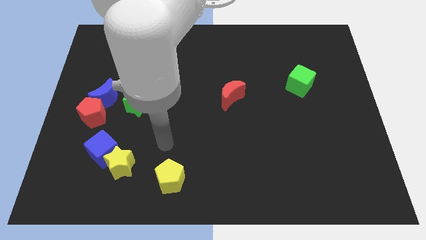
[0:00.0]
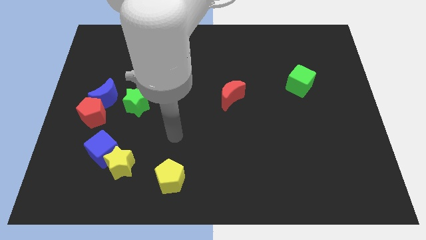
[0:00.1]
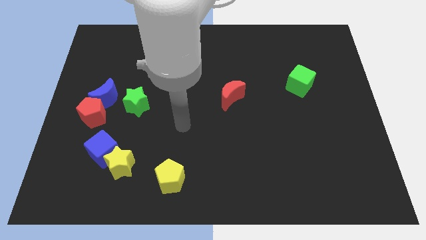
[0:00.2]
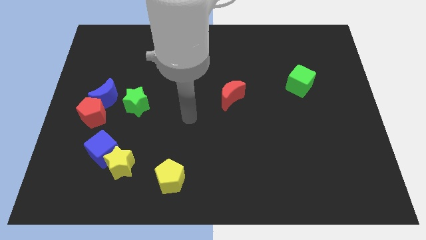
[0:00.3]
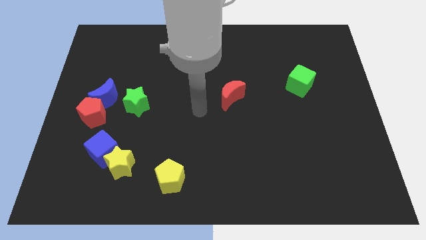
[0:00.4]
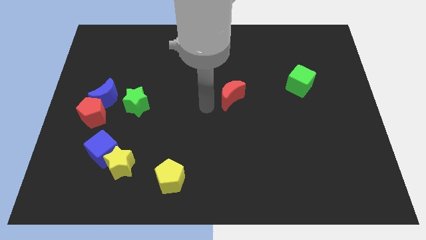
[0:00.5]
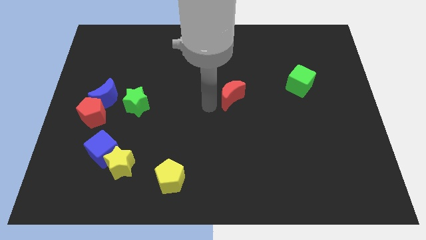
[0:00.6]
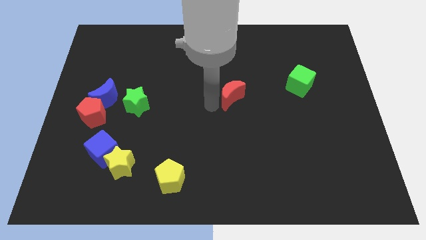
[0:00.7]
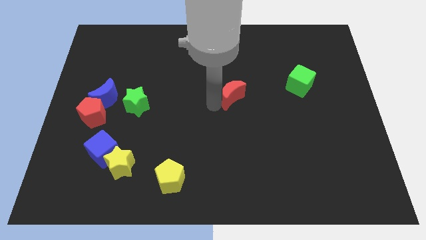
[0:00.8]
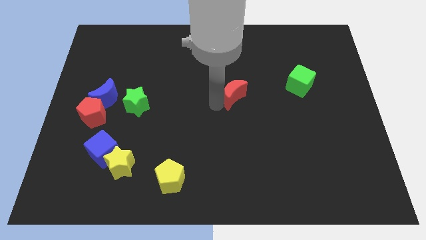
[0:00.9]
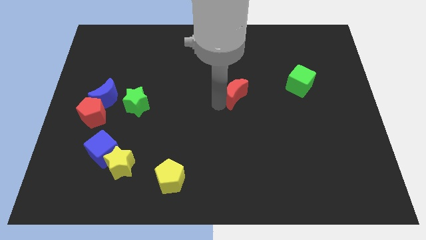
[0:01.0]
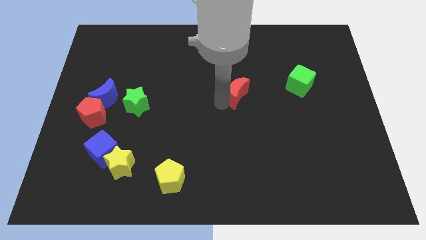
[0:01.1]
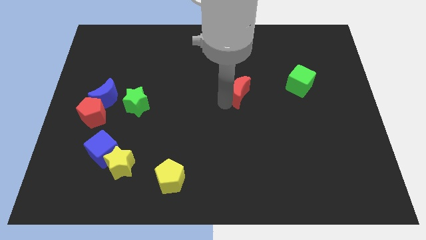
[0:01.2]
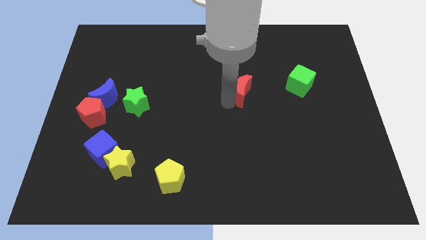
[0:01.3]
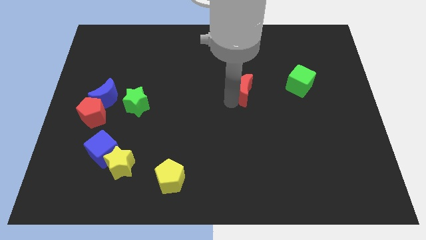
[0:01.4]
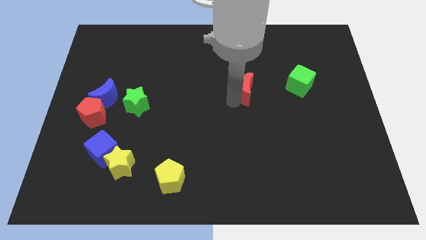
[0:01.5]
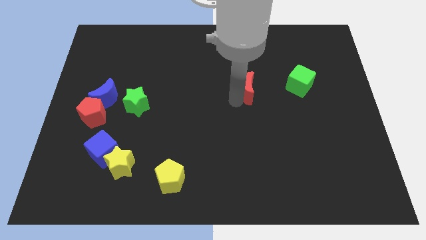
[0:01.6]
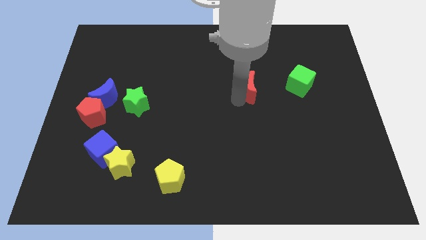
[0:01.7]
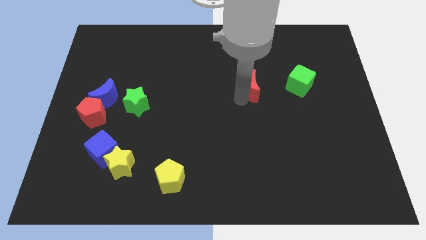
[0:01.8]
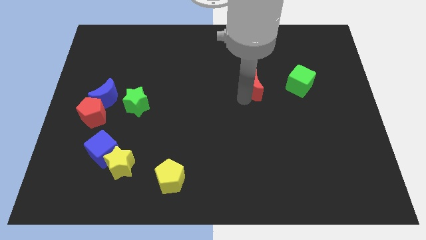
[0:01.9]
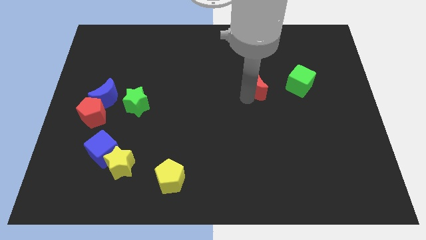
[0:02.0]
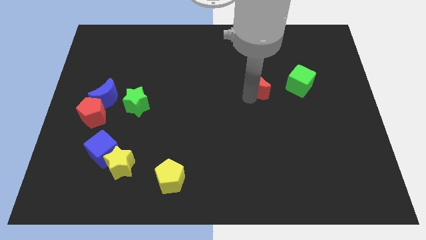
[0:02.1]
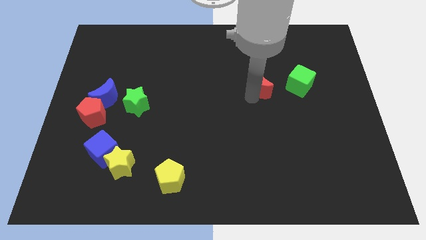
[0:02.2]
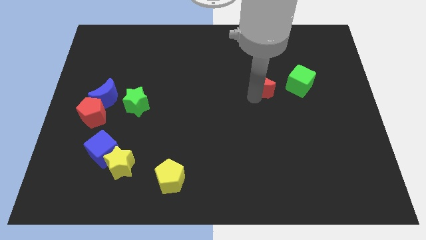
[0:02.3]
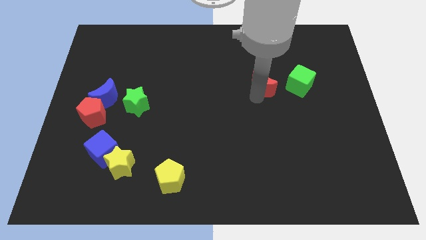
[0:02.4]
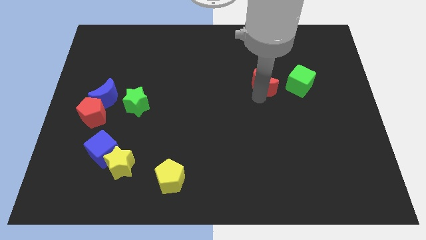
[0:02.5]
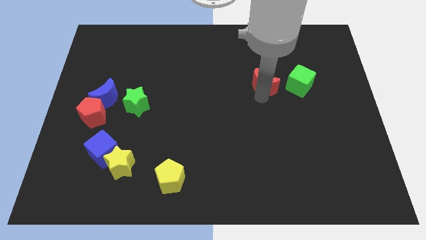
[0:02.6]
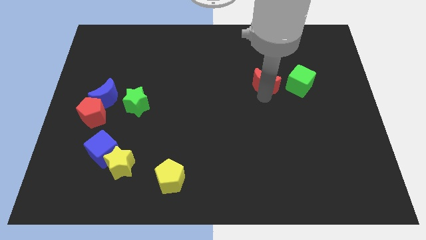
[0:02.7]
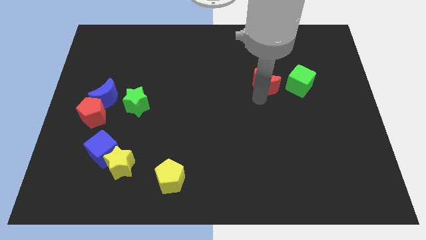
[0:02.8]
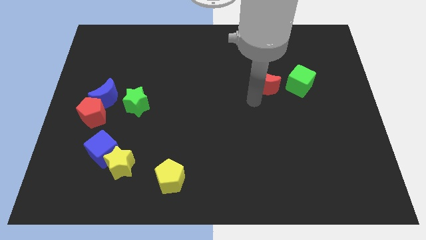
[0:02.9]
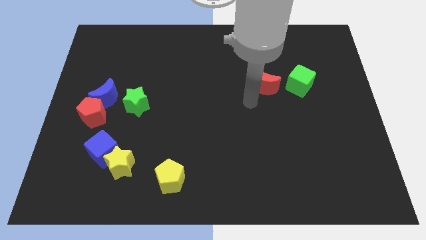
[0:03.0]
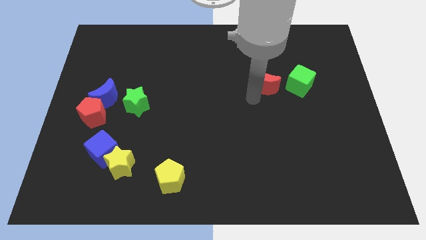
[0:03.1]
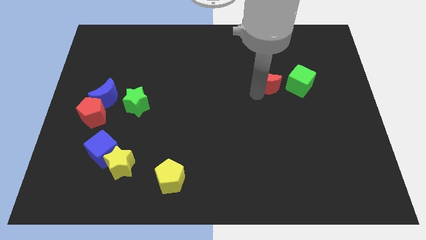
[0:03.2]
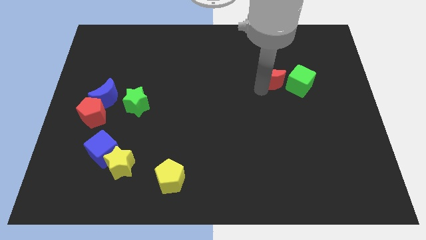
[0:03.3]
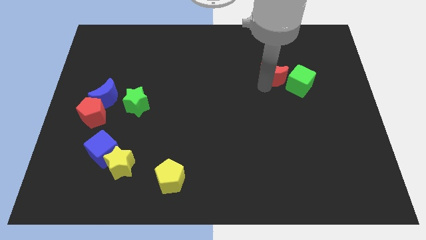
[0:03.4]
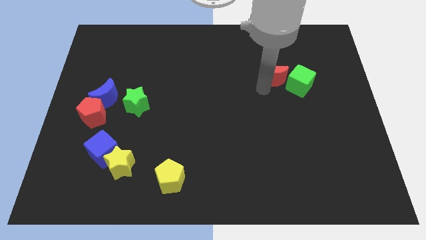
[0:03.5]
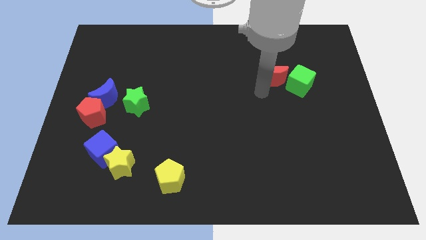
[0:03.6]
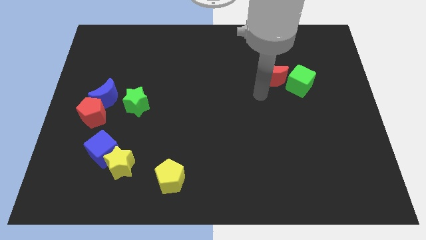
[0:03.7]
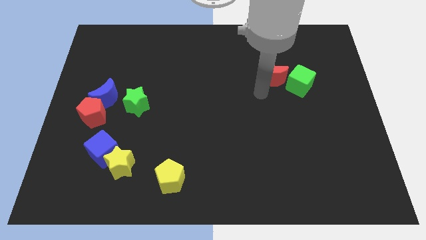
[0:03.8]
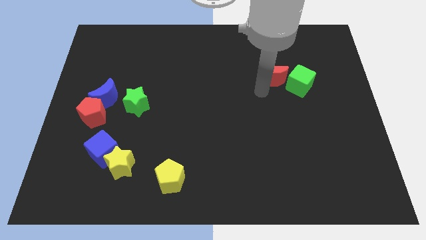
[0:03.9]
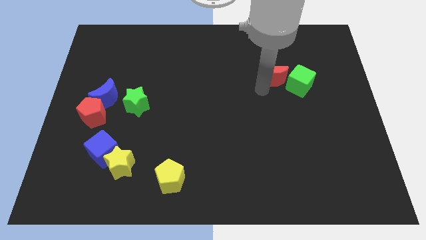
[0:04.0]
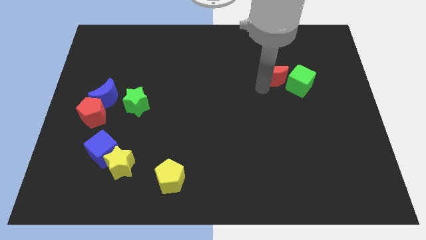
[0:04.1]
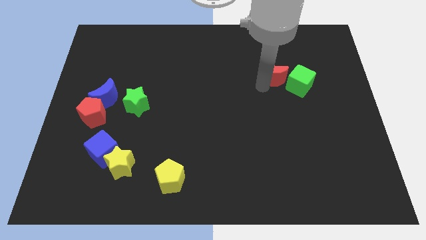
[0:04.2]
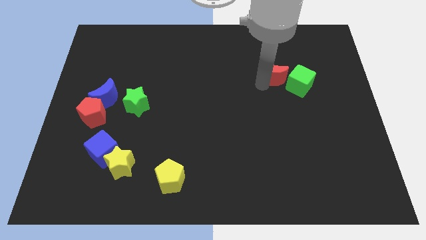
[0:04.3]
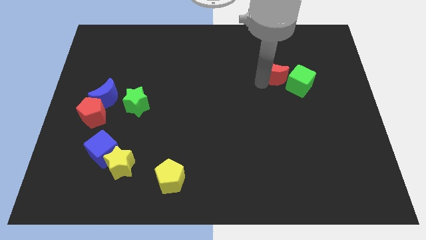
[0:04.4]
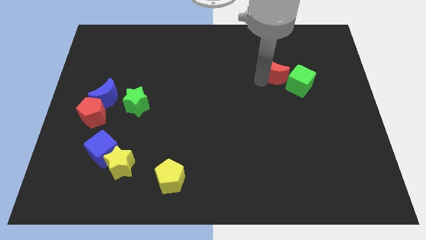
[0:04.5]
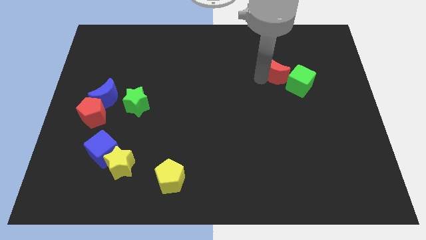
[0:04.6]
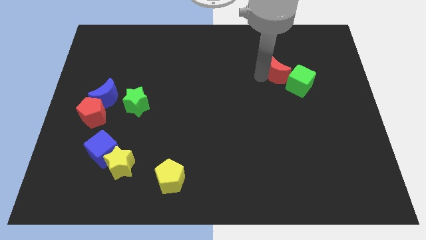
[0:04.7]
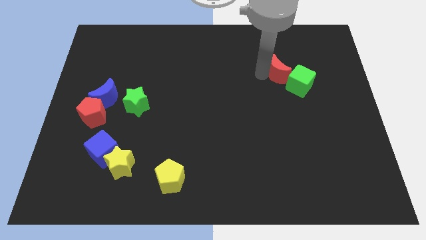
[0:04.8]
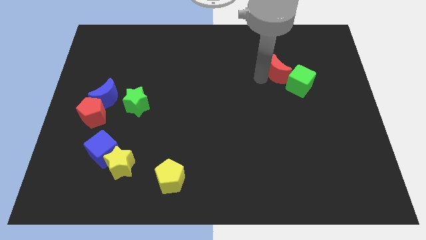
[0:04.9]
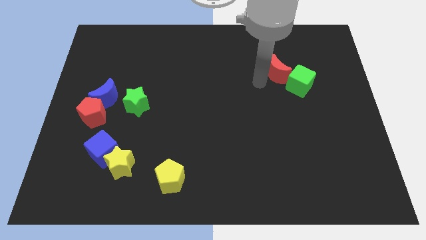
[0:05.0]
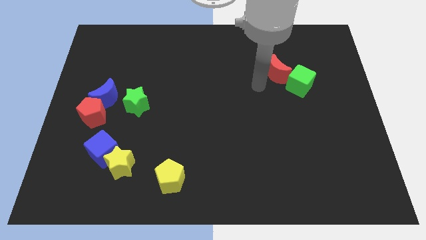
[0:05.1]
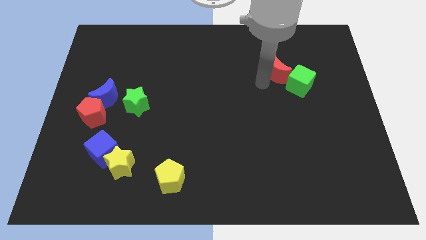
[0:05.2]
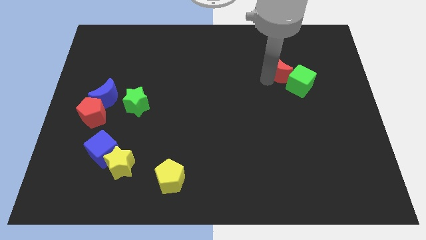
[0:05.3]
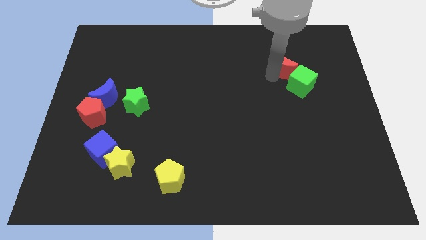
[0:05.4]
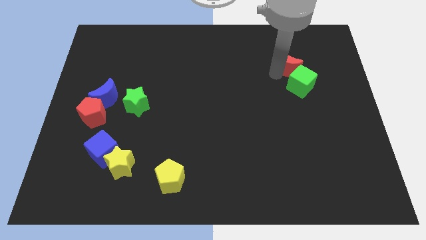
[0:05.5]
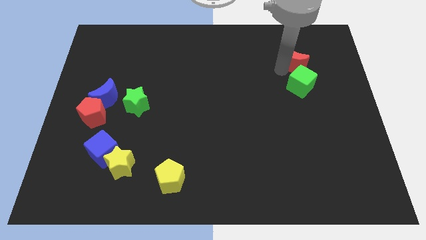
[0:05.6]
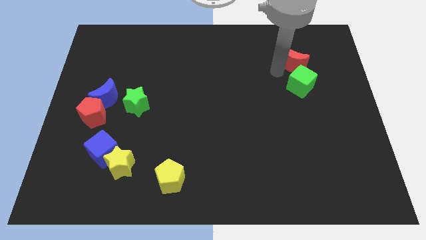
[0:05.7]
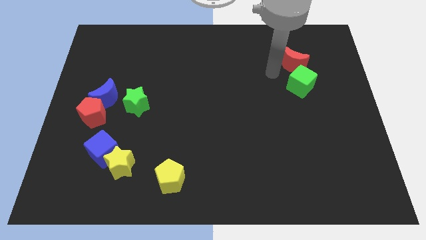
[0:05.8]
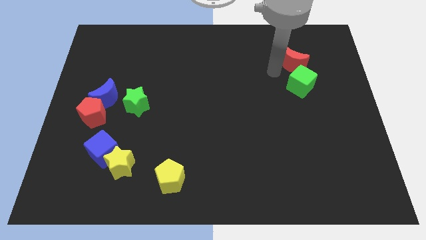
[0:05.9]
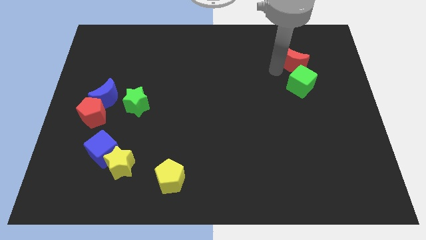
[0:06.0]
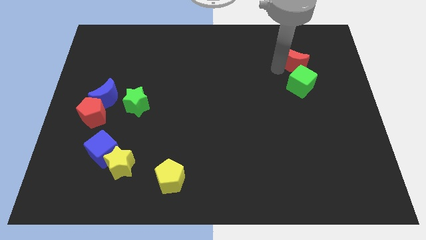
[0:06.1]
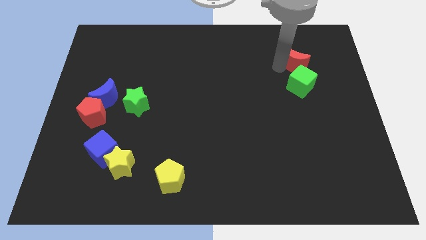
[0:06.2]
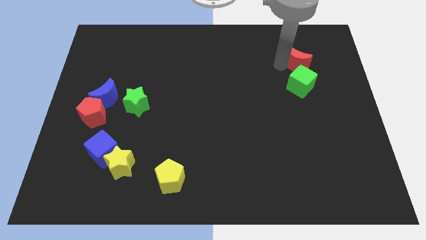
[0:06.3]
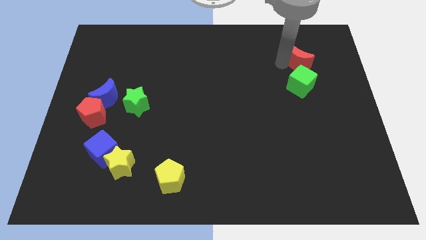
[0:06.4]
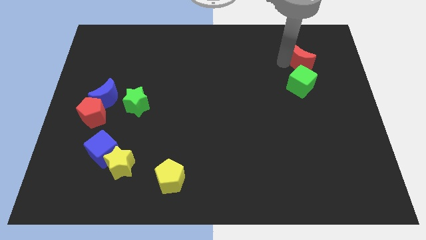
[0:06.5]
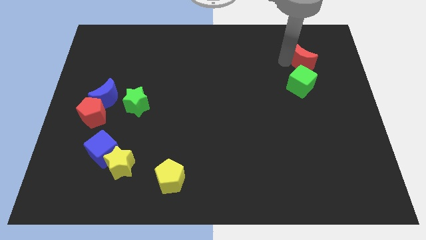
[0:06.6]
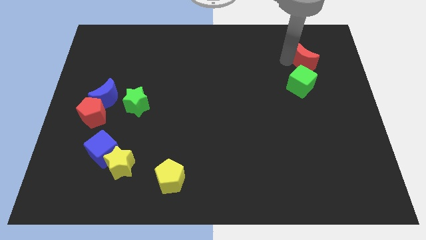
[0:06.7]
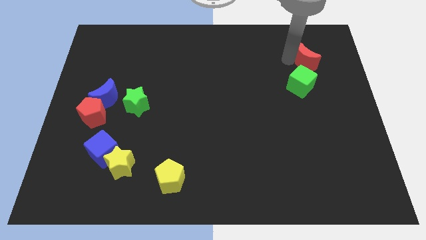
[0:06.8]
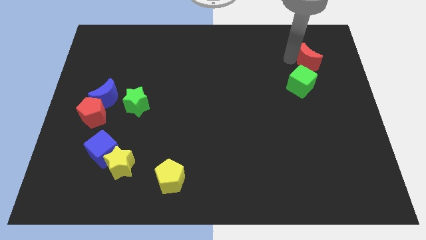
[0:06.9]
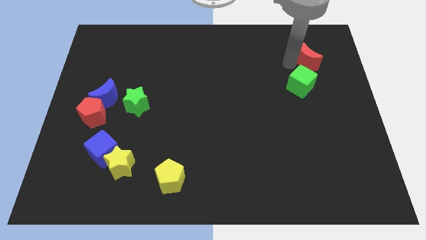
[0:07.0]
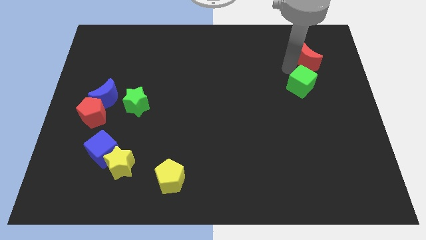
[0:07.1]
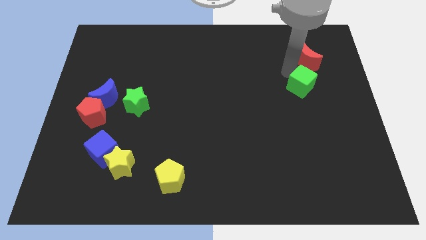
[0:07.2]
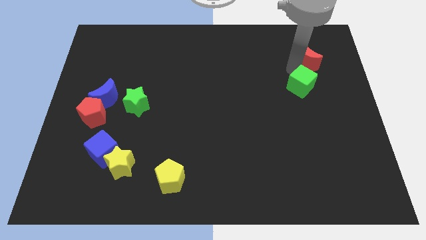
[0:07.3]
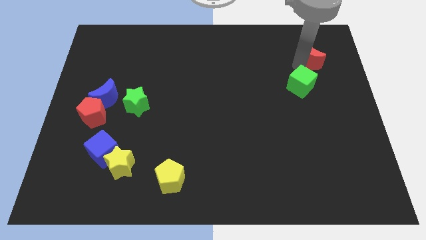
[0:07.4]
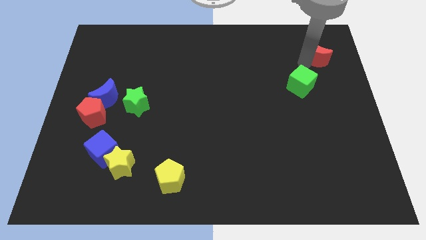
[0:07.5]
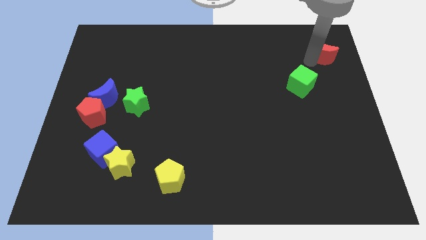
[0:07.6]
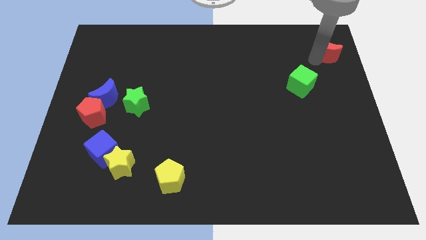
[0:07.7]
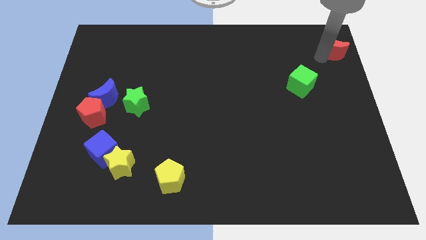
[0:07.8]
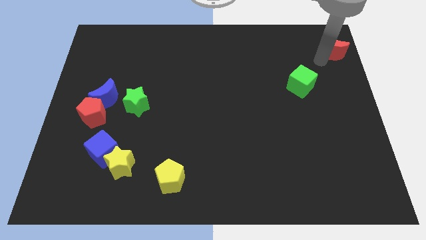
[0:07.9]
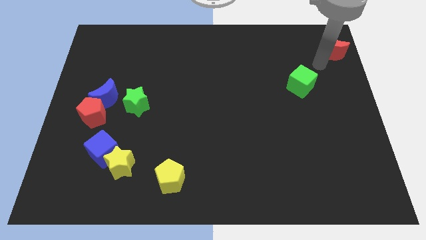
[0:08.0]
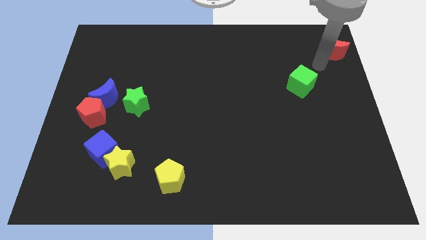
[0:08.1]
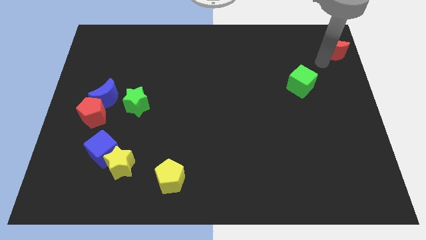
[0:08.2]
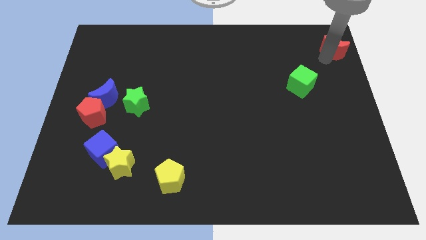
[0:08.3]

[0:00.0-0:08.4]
slide the red moon to the top right of the board
